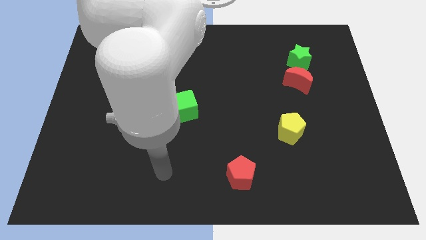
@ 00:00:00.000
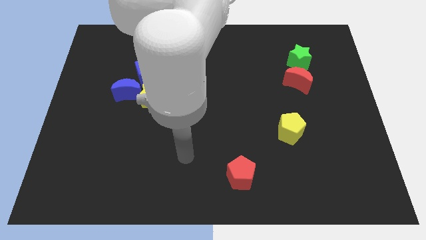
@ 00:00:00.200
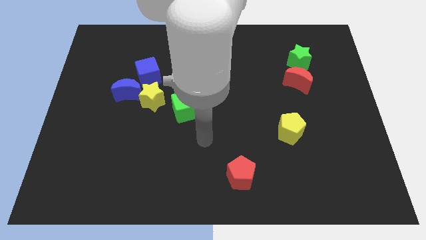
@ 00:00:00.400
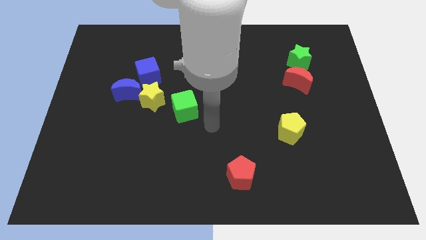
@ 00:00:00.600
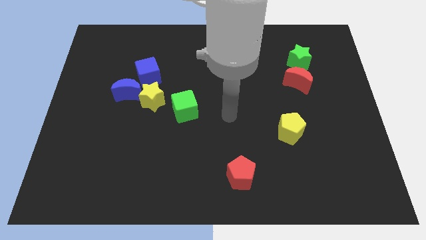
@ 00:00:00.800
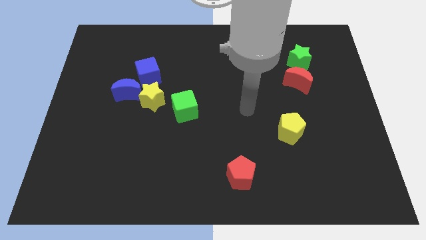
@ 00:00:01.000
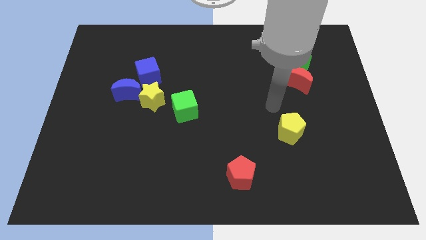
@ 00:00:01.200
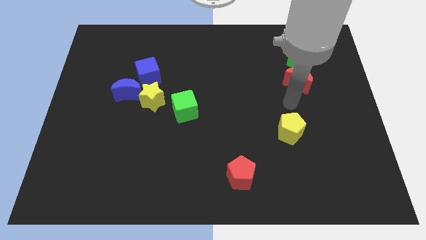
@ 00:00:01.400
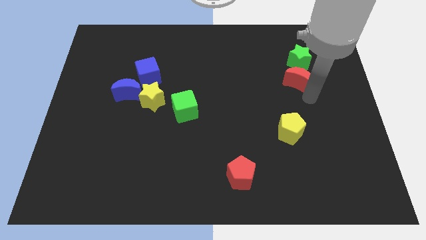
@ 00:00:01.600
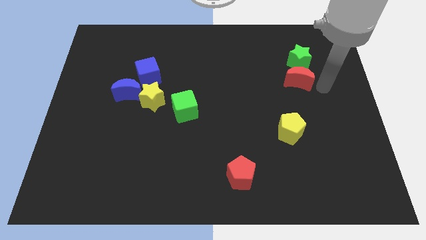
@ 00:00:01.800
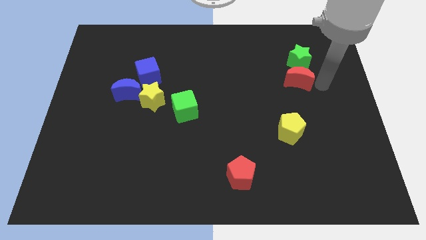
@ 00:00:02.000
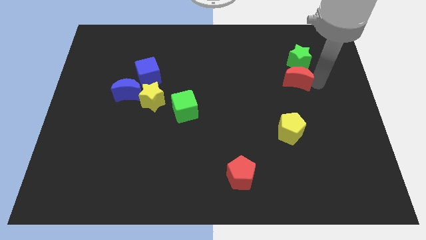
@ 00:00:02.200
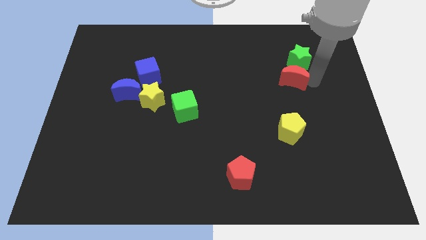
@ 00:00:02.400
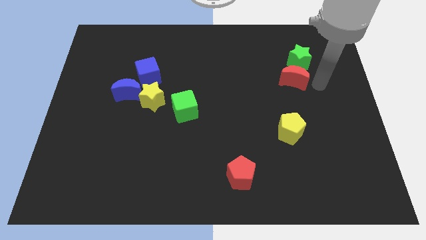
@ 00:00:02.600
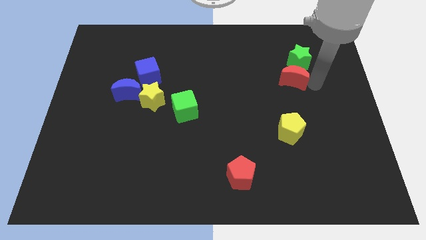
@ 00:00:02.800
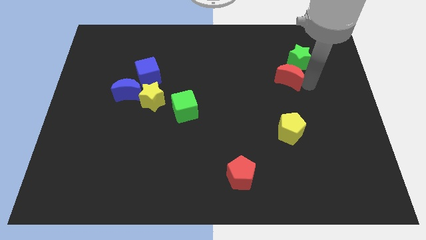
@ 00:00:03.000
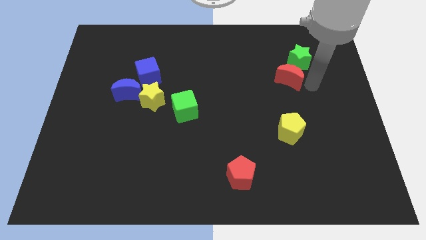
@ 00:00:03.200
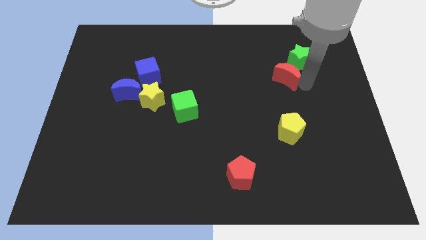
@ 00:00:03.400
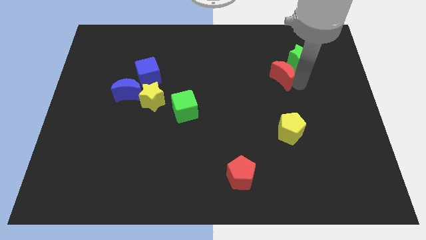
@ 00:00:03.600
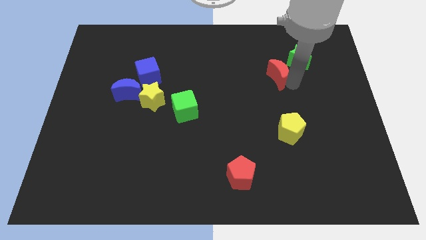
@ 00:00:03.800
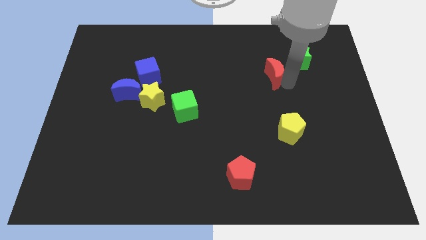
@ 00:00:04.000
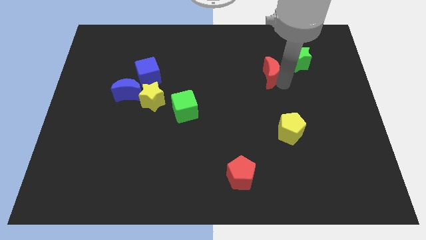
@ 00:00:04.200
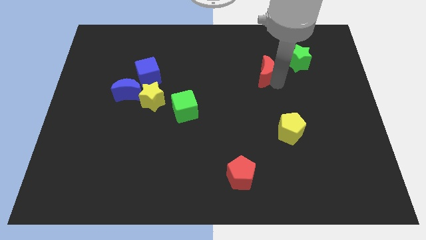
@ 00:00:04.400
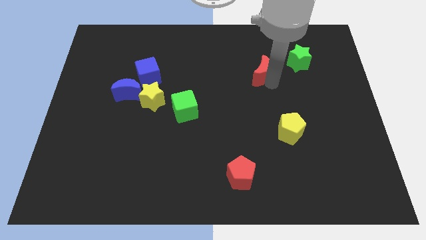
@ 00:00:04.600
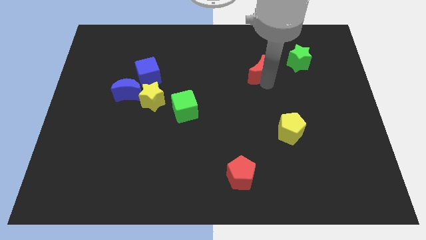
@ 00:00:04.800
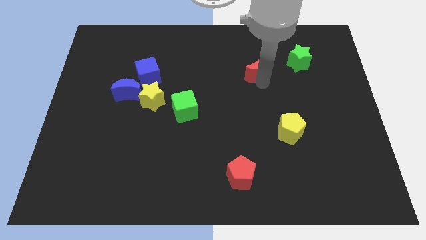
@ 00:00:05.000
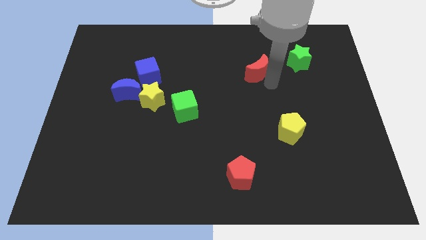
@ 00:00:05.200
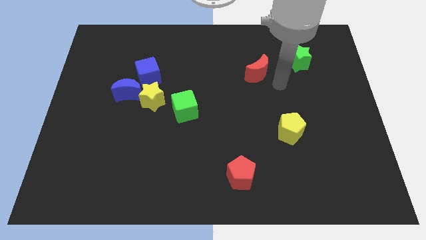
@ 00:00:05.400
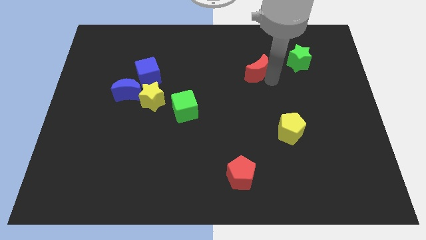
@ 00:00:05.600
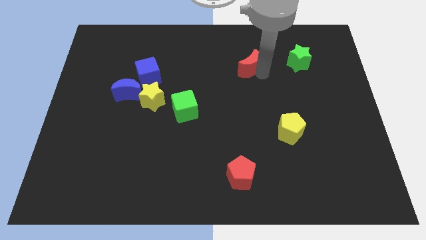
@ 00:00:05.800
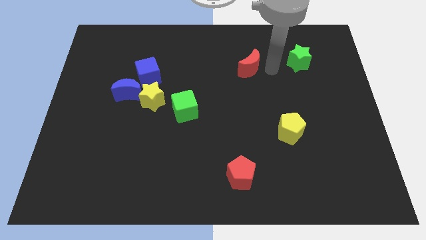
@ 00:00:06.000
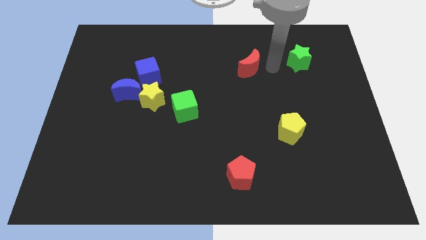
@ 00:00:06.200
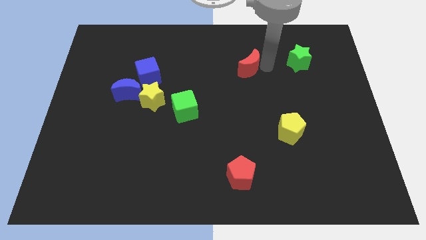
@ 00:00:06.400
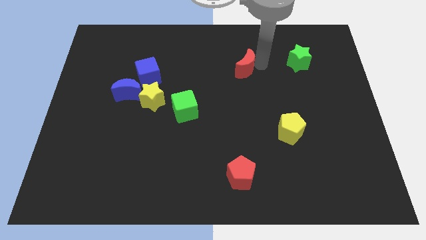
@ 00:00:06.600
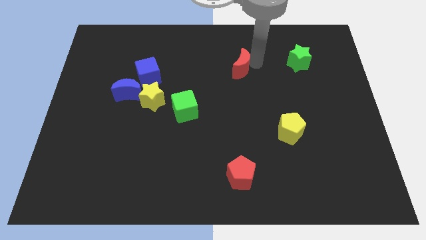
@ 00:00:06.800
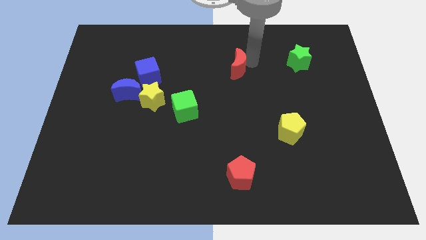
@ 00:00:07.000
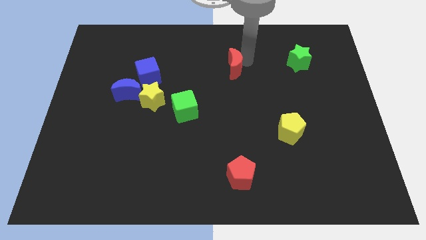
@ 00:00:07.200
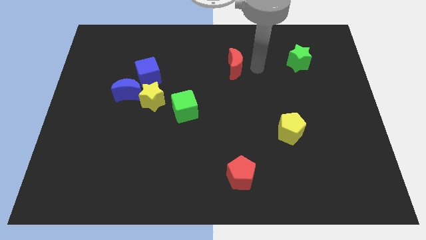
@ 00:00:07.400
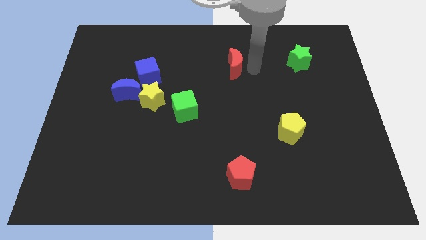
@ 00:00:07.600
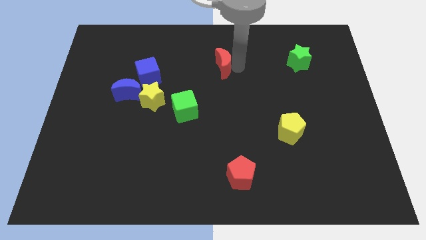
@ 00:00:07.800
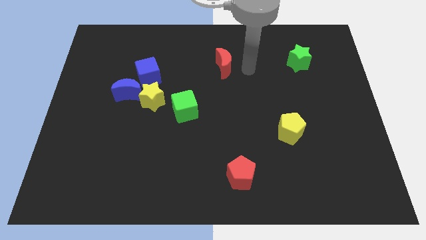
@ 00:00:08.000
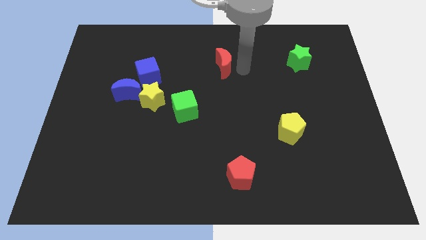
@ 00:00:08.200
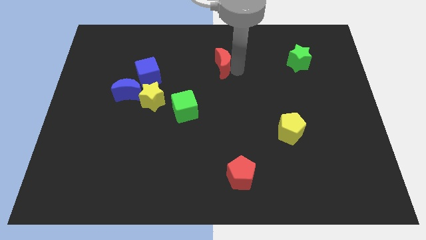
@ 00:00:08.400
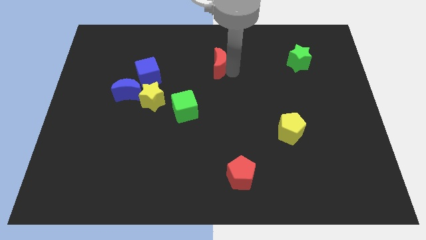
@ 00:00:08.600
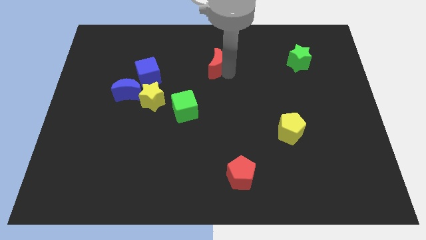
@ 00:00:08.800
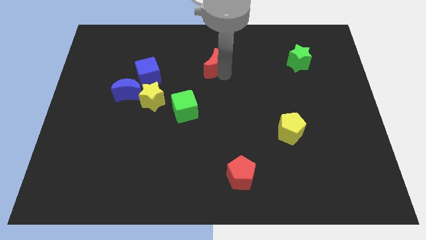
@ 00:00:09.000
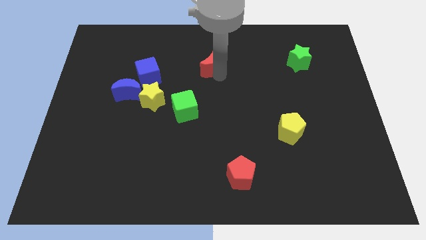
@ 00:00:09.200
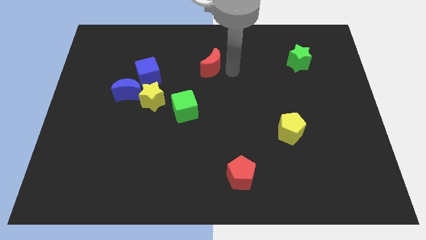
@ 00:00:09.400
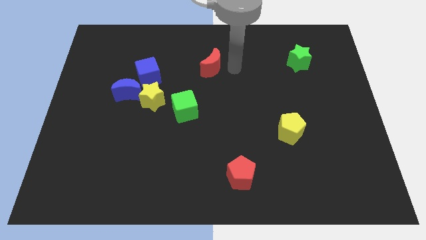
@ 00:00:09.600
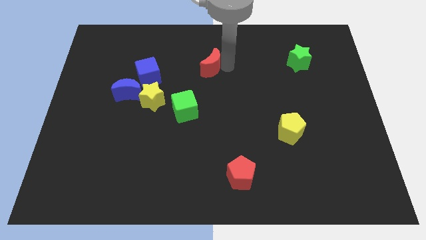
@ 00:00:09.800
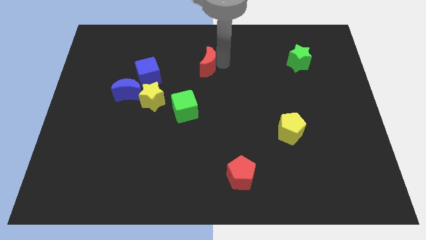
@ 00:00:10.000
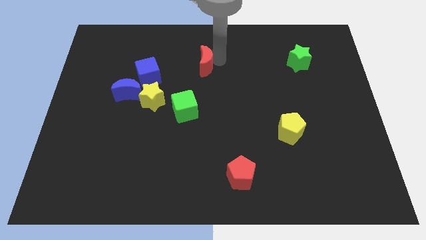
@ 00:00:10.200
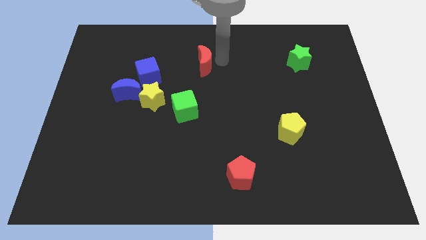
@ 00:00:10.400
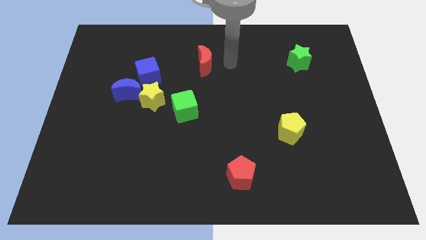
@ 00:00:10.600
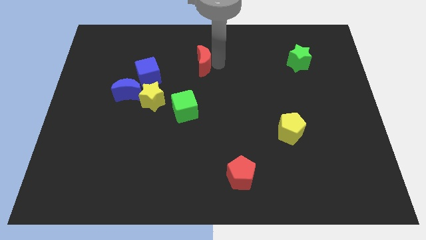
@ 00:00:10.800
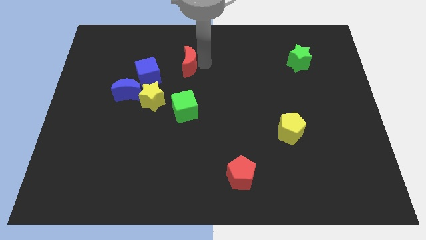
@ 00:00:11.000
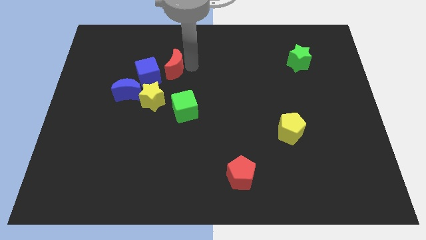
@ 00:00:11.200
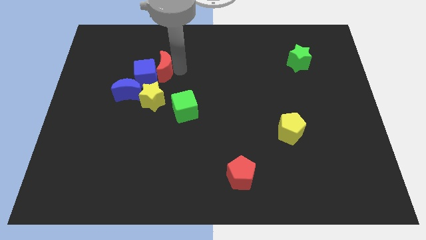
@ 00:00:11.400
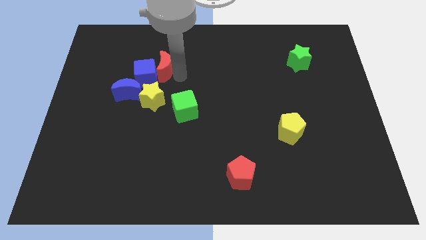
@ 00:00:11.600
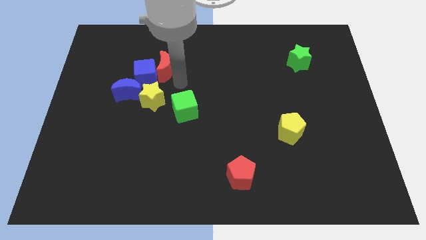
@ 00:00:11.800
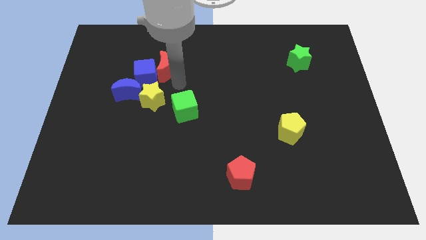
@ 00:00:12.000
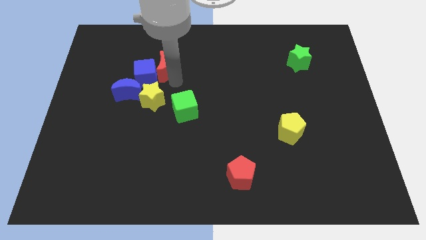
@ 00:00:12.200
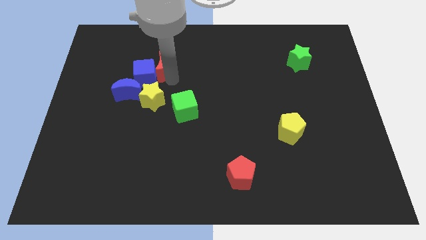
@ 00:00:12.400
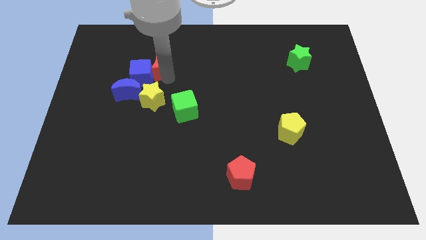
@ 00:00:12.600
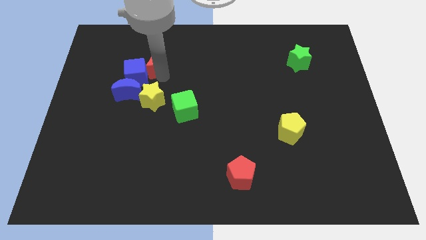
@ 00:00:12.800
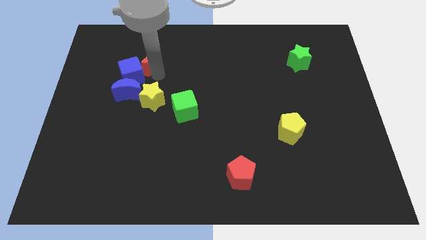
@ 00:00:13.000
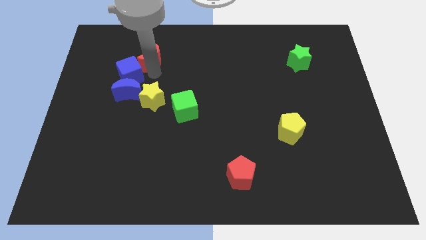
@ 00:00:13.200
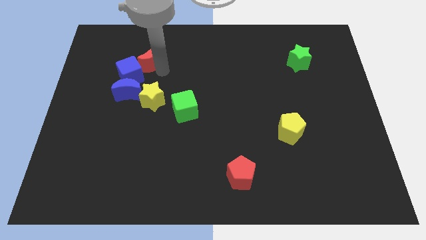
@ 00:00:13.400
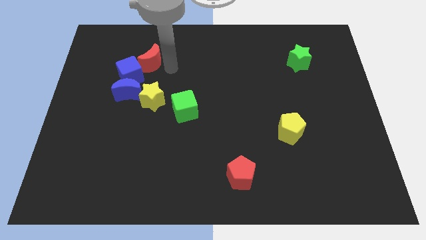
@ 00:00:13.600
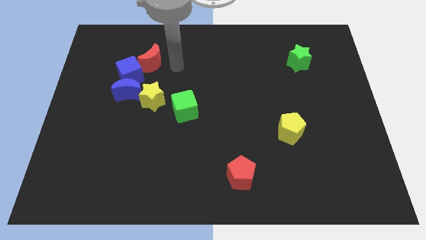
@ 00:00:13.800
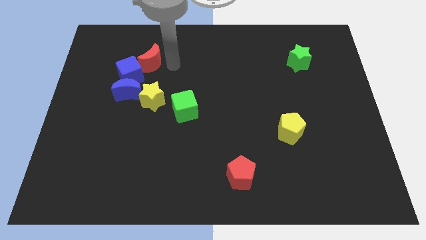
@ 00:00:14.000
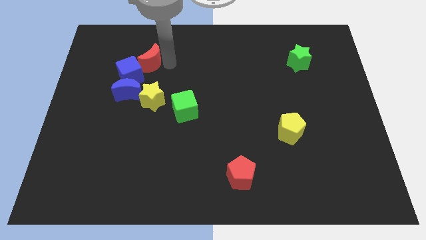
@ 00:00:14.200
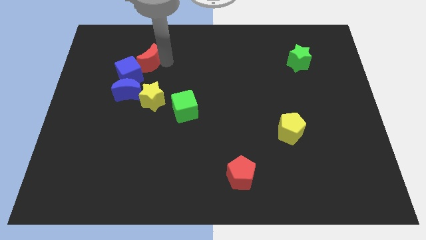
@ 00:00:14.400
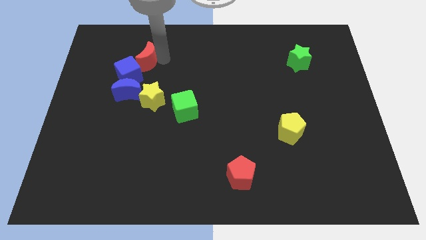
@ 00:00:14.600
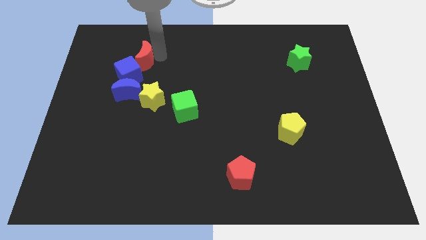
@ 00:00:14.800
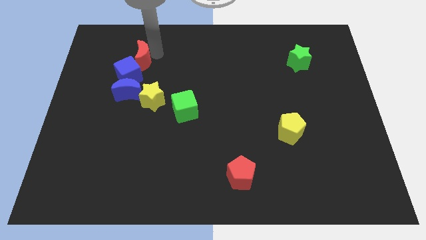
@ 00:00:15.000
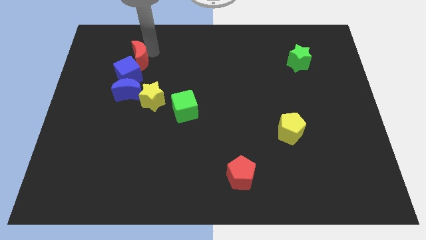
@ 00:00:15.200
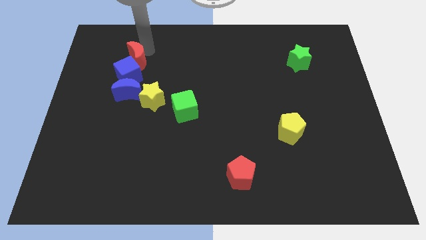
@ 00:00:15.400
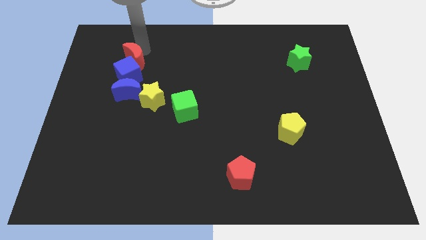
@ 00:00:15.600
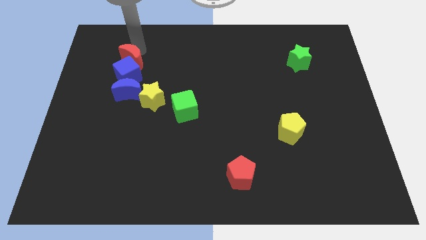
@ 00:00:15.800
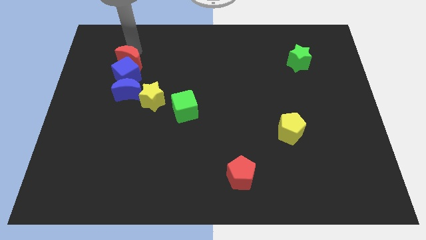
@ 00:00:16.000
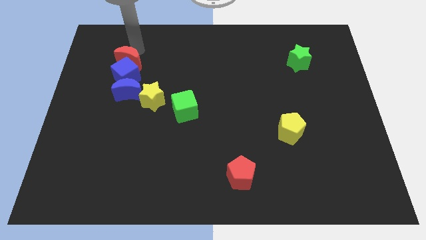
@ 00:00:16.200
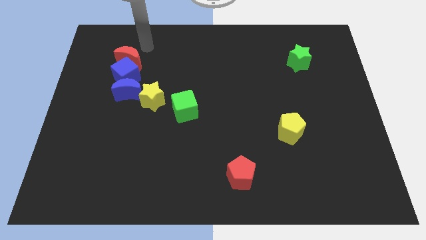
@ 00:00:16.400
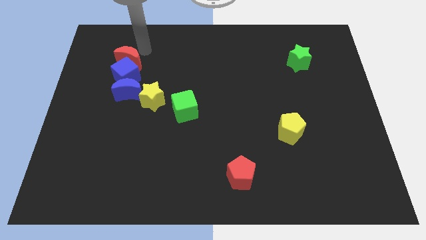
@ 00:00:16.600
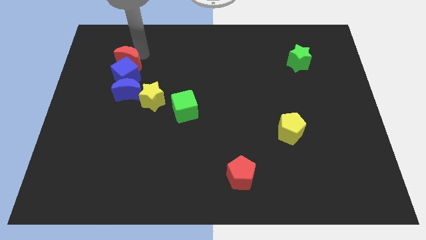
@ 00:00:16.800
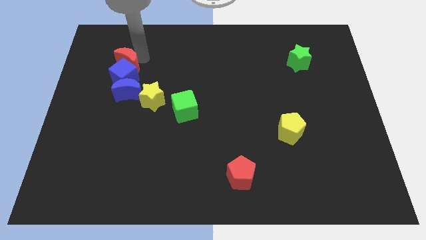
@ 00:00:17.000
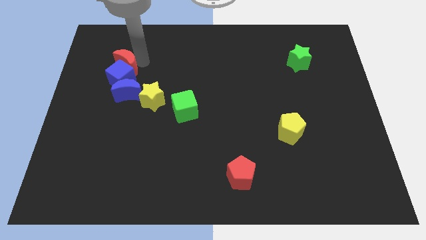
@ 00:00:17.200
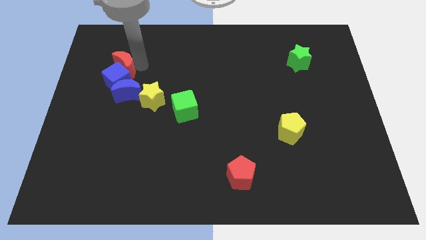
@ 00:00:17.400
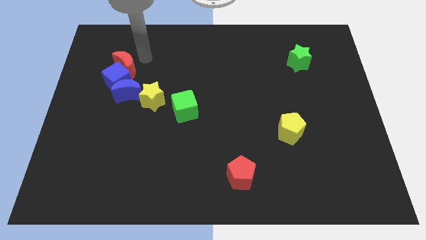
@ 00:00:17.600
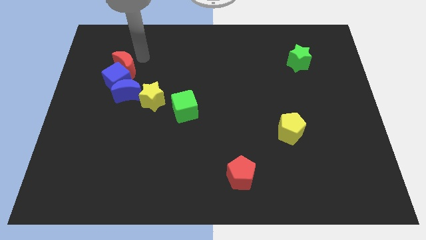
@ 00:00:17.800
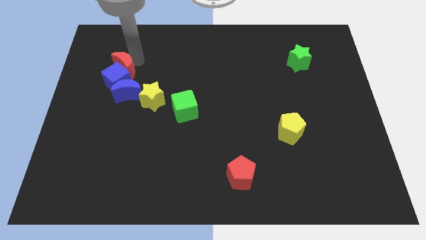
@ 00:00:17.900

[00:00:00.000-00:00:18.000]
push the red moon to the top left side of the blue moon
